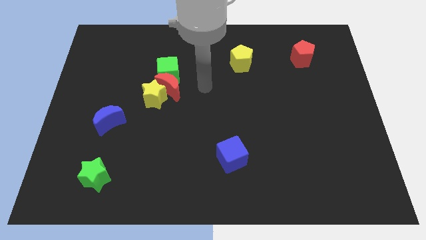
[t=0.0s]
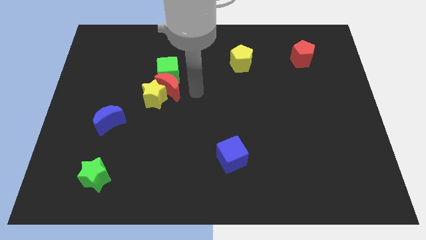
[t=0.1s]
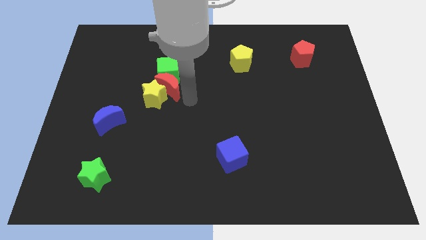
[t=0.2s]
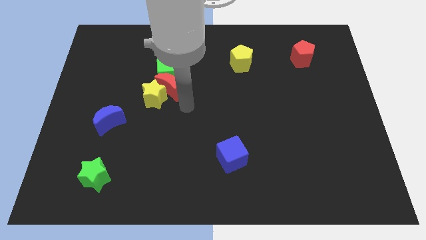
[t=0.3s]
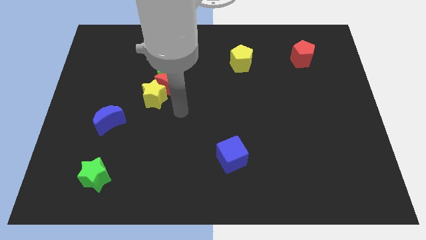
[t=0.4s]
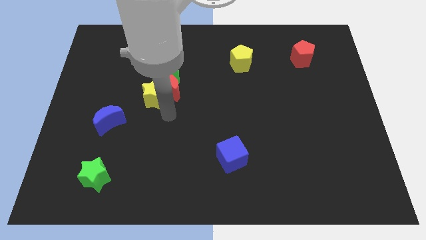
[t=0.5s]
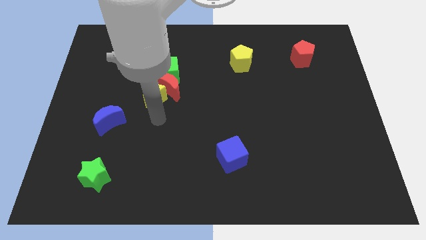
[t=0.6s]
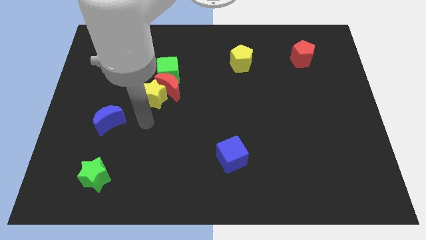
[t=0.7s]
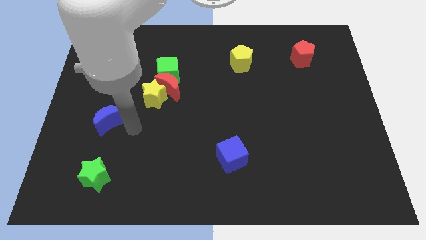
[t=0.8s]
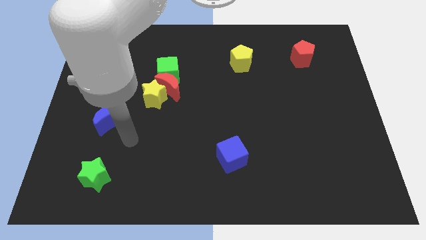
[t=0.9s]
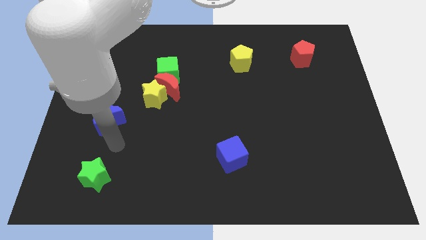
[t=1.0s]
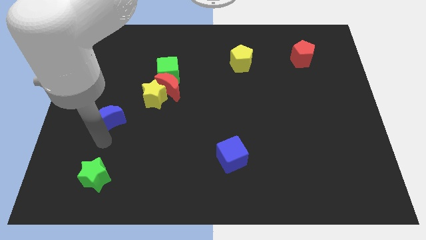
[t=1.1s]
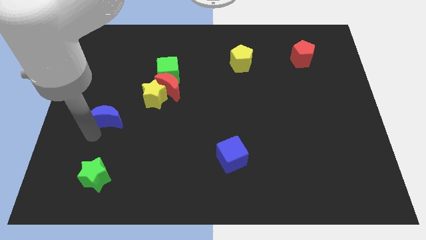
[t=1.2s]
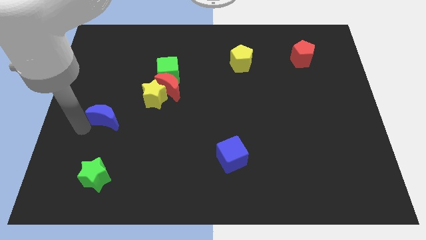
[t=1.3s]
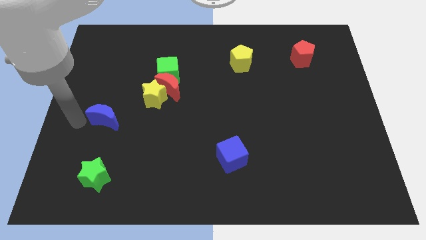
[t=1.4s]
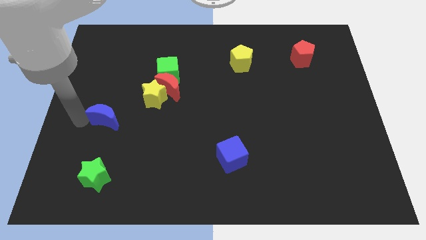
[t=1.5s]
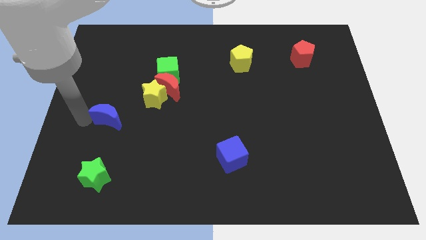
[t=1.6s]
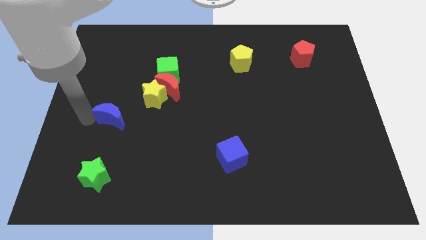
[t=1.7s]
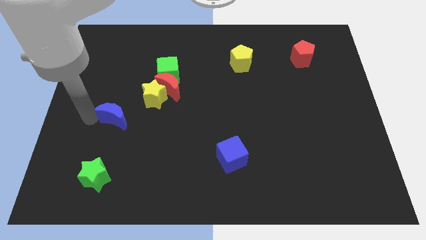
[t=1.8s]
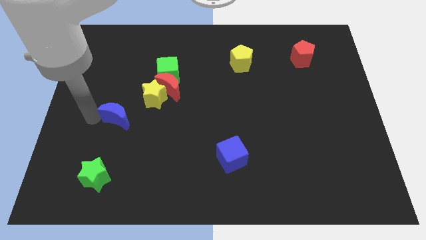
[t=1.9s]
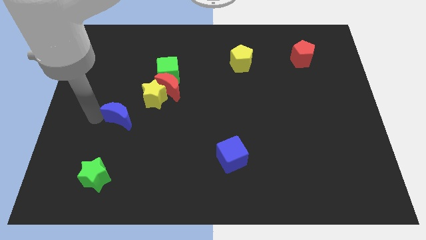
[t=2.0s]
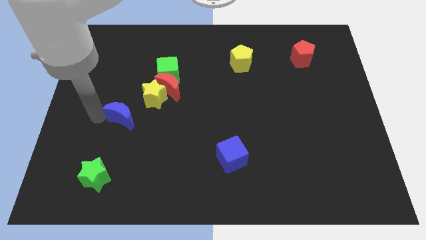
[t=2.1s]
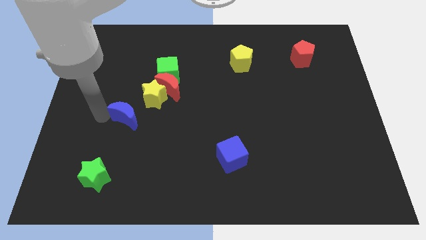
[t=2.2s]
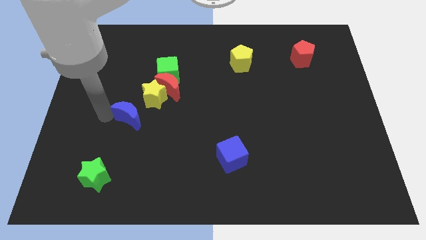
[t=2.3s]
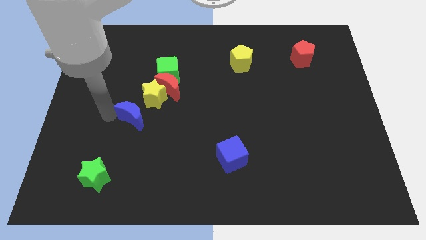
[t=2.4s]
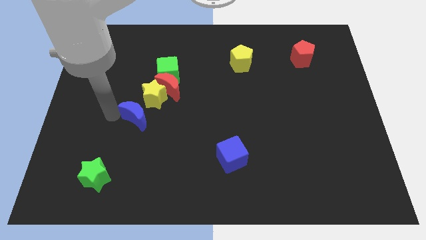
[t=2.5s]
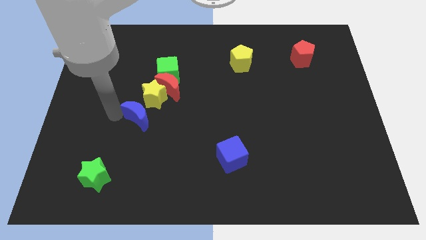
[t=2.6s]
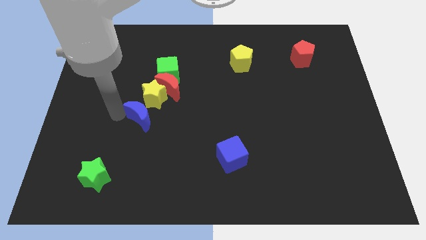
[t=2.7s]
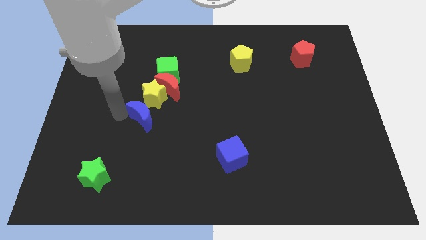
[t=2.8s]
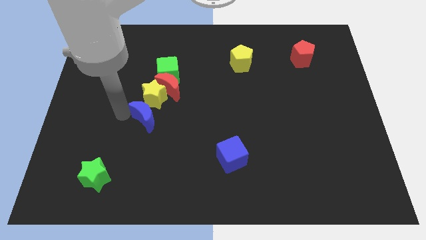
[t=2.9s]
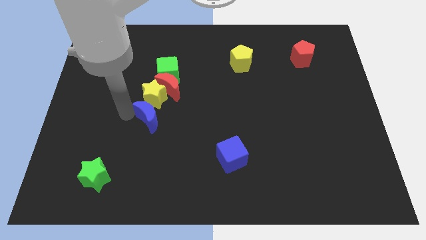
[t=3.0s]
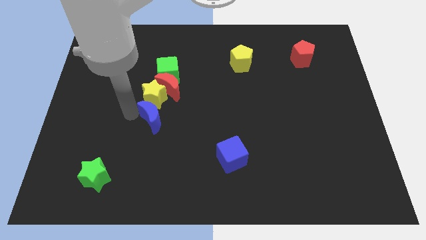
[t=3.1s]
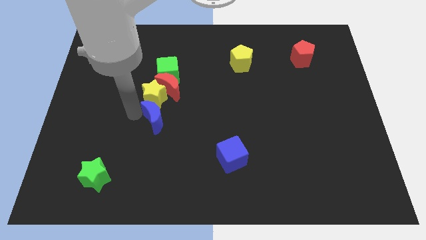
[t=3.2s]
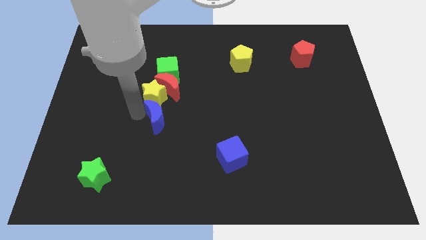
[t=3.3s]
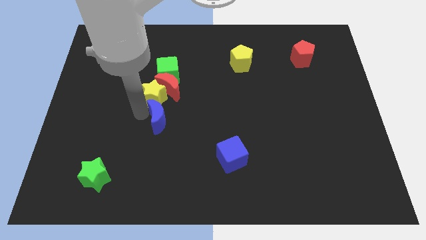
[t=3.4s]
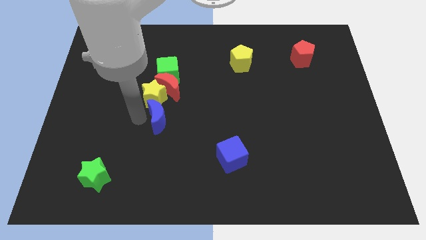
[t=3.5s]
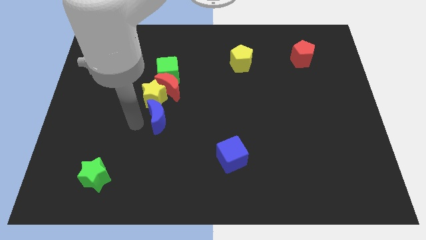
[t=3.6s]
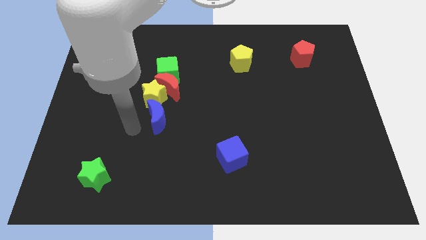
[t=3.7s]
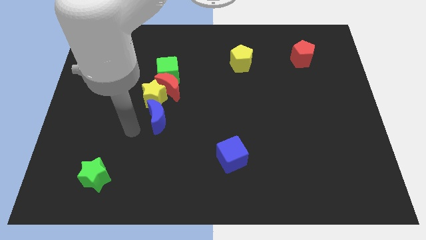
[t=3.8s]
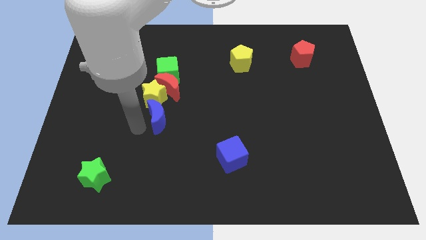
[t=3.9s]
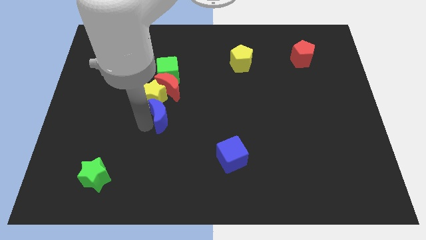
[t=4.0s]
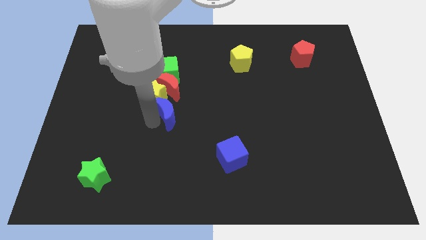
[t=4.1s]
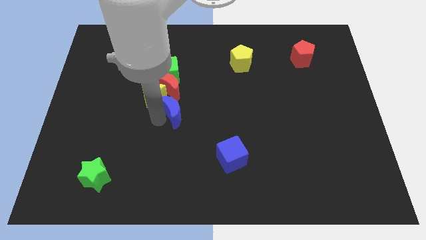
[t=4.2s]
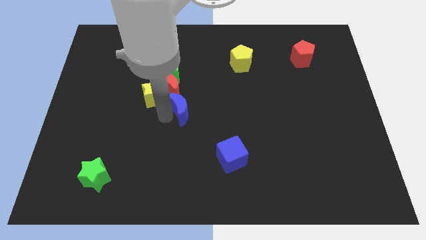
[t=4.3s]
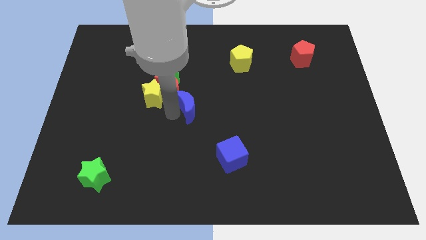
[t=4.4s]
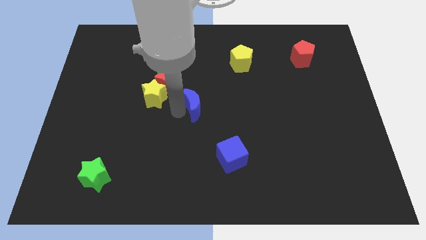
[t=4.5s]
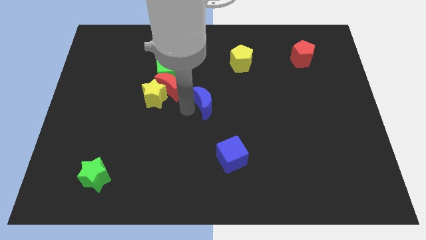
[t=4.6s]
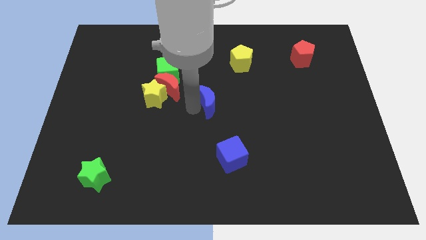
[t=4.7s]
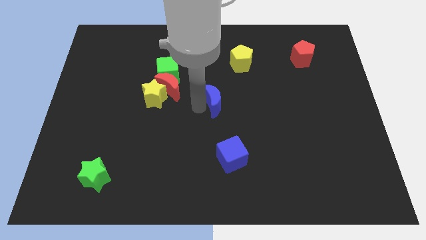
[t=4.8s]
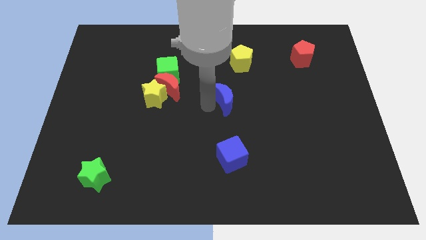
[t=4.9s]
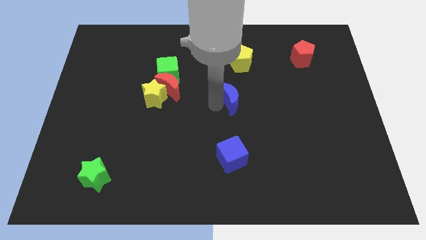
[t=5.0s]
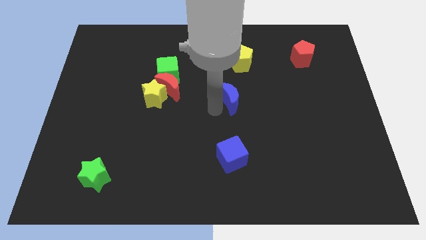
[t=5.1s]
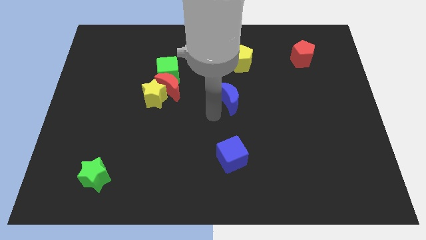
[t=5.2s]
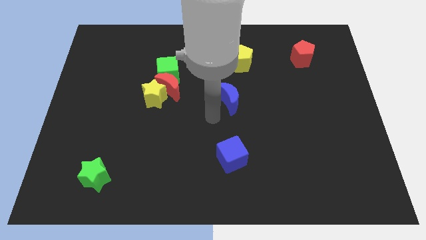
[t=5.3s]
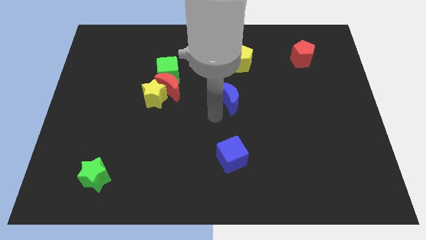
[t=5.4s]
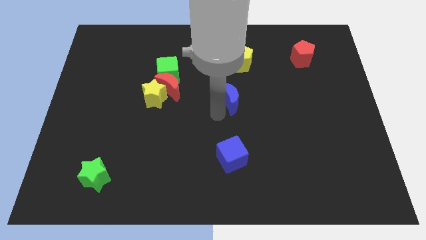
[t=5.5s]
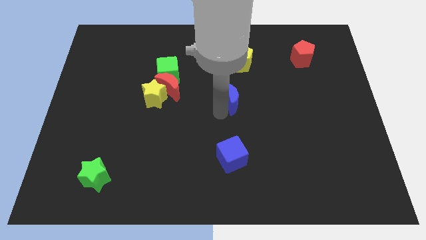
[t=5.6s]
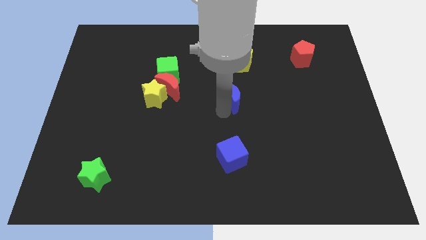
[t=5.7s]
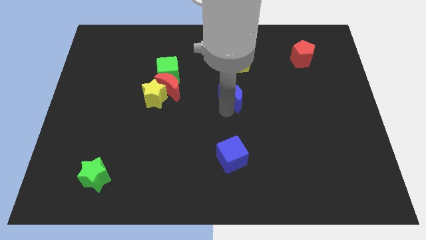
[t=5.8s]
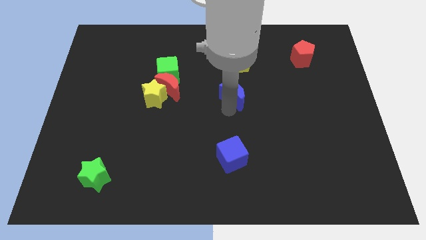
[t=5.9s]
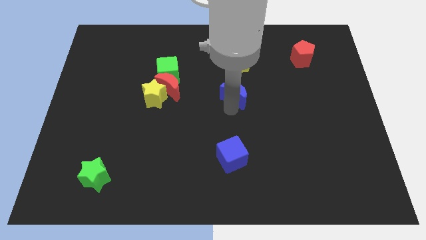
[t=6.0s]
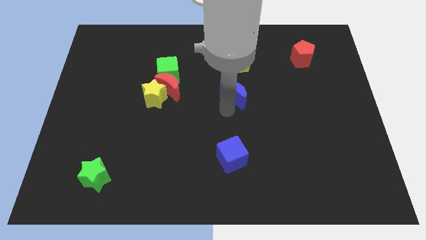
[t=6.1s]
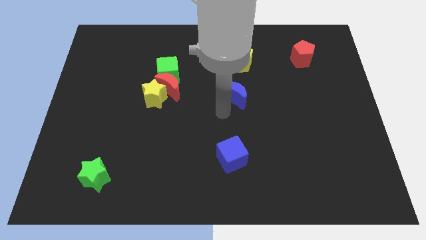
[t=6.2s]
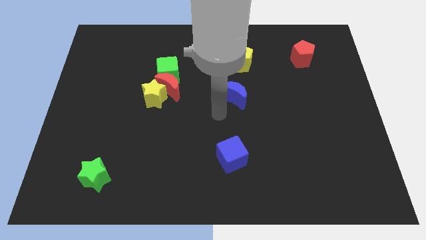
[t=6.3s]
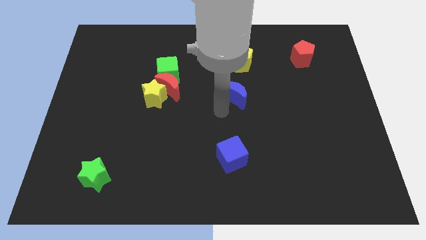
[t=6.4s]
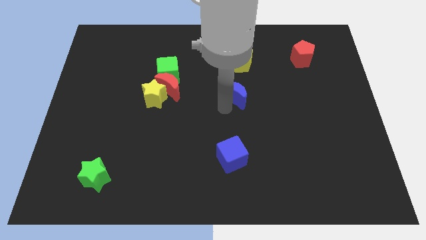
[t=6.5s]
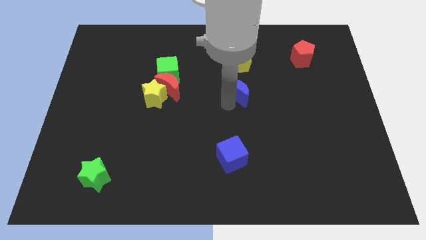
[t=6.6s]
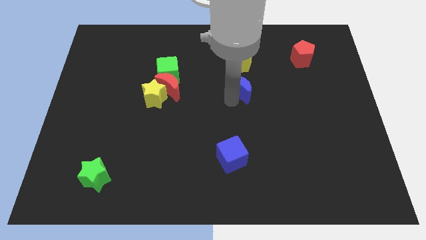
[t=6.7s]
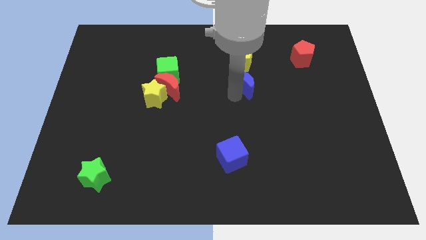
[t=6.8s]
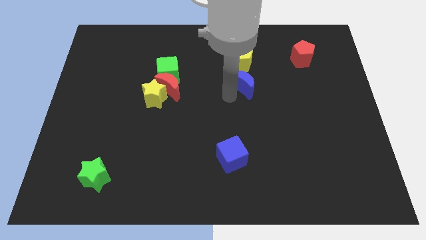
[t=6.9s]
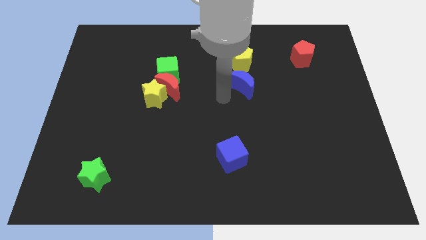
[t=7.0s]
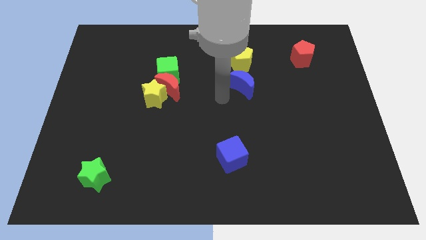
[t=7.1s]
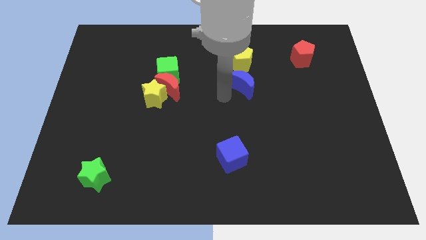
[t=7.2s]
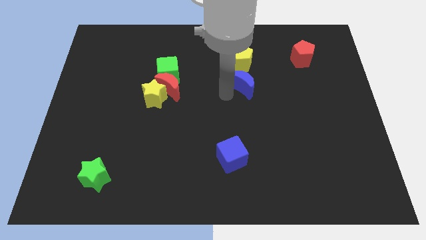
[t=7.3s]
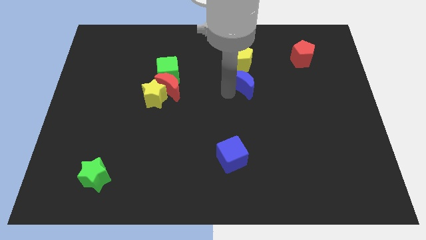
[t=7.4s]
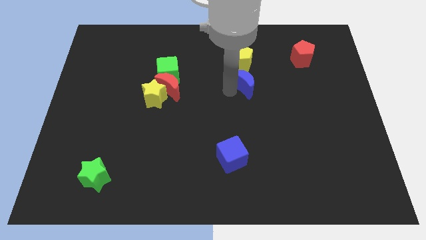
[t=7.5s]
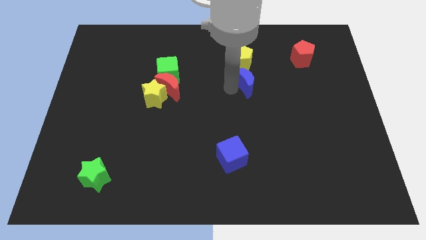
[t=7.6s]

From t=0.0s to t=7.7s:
slide the blue moon diagonally down and to the right of the yellow pentagon
